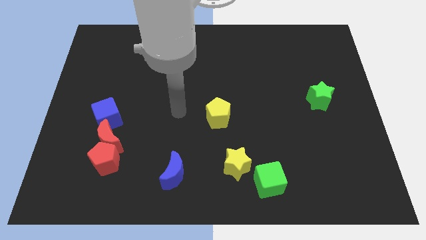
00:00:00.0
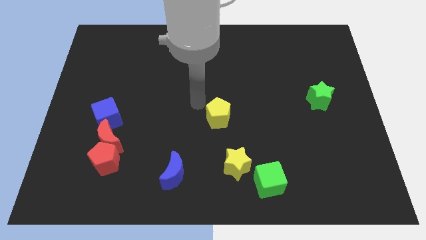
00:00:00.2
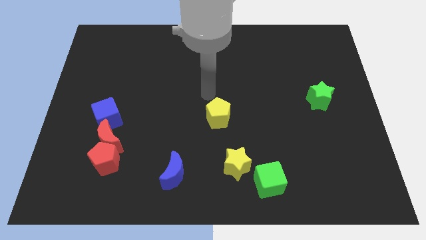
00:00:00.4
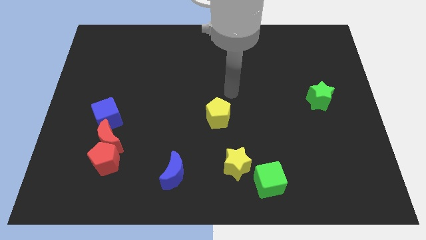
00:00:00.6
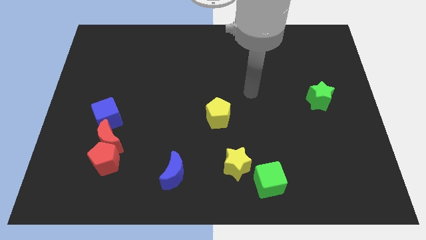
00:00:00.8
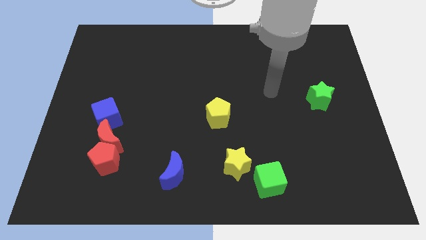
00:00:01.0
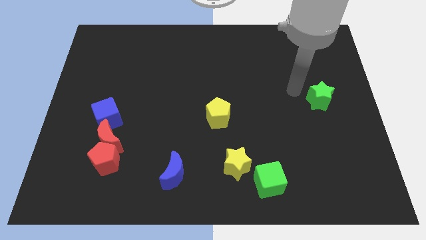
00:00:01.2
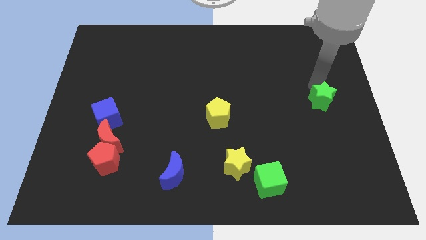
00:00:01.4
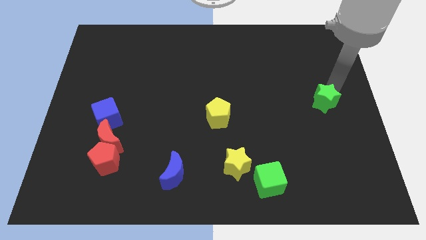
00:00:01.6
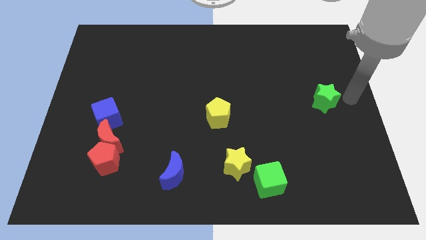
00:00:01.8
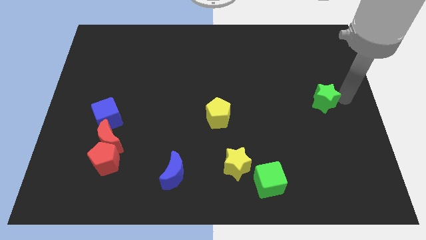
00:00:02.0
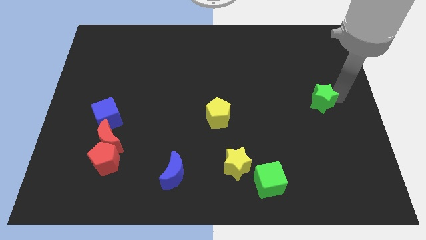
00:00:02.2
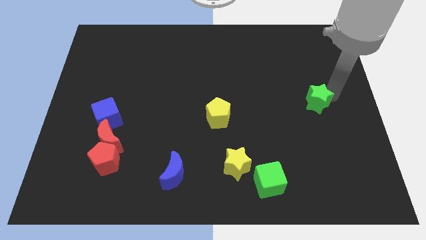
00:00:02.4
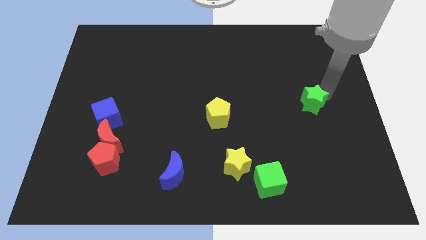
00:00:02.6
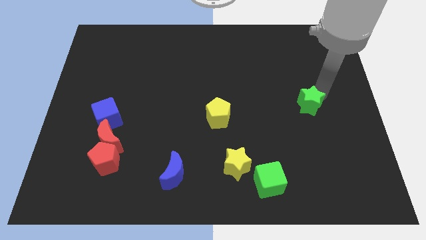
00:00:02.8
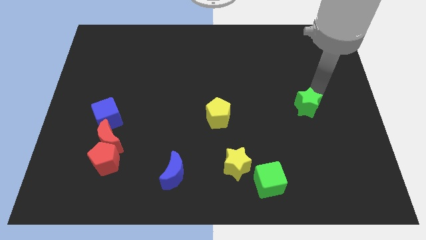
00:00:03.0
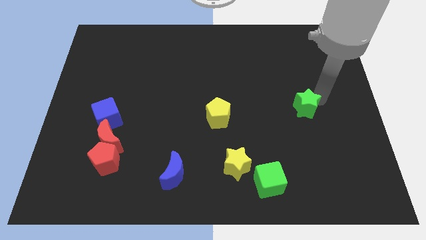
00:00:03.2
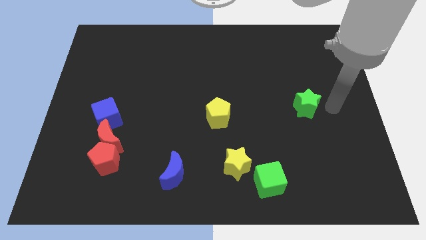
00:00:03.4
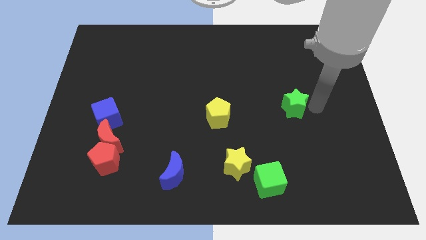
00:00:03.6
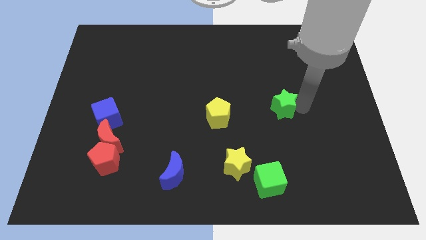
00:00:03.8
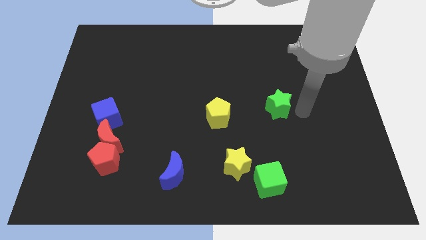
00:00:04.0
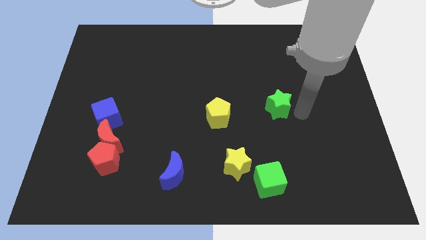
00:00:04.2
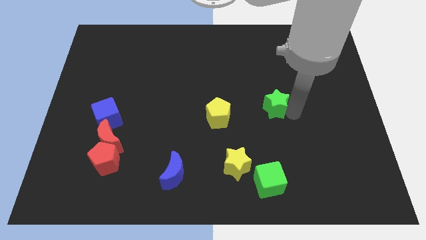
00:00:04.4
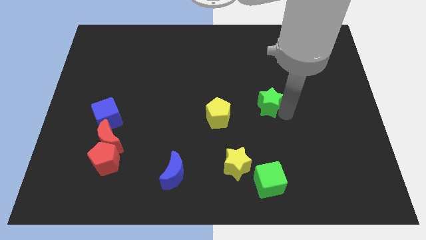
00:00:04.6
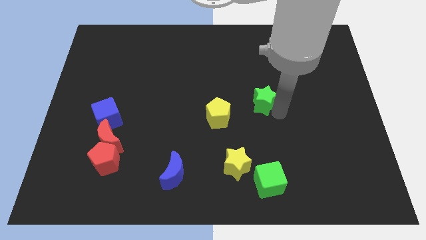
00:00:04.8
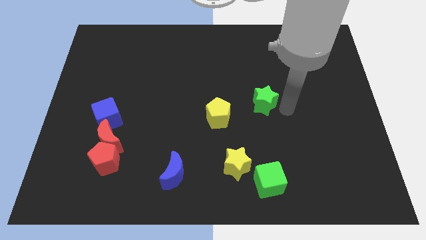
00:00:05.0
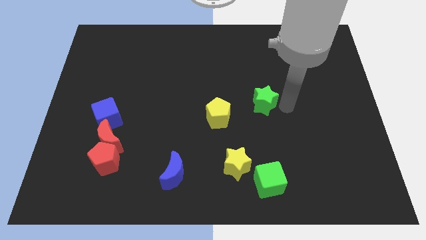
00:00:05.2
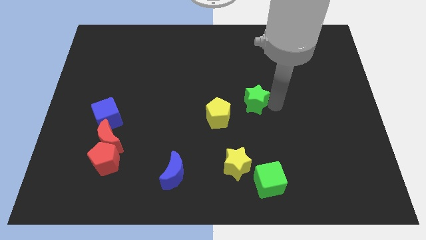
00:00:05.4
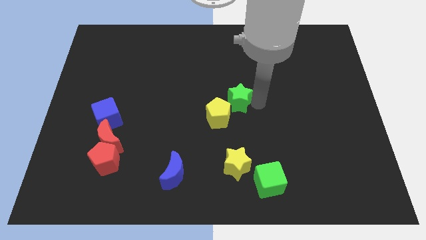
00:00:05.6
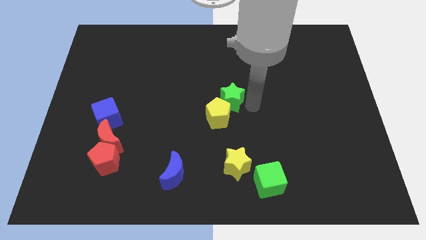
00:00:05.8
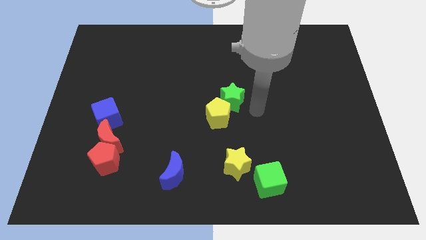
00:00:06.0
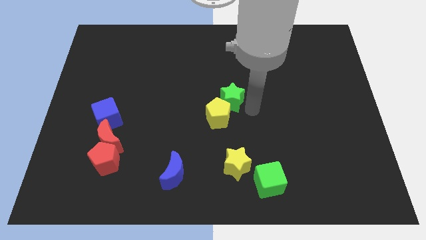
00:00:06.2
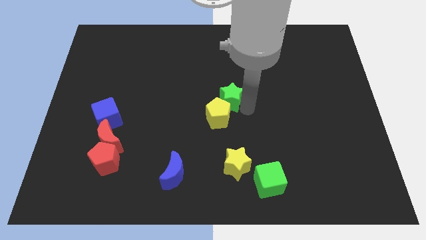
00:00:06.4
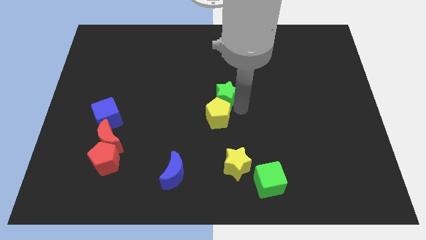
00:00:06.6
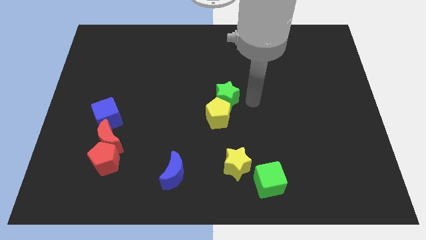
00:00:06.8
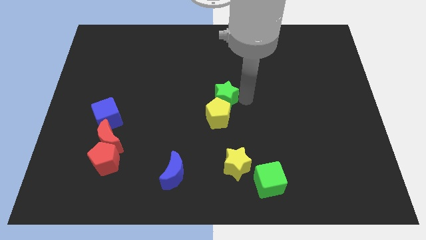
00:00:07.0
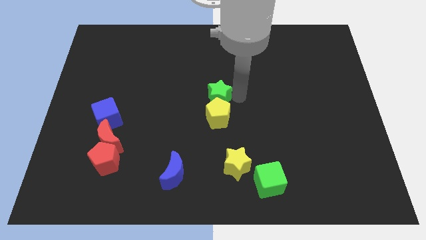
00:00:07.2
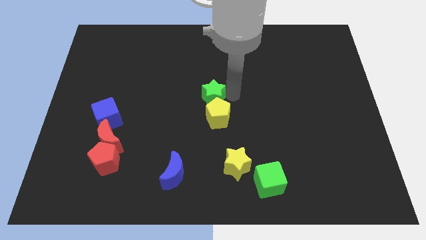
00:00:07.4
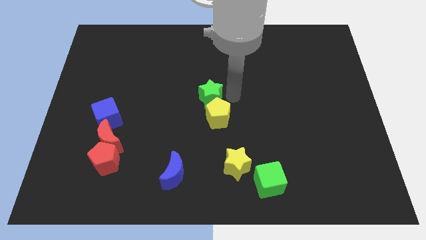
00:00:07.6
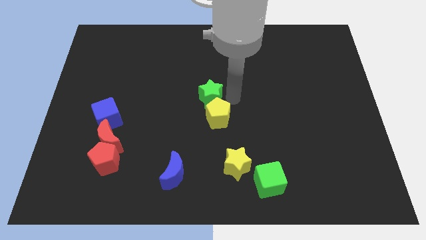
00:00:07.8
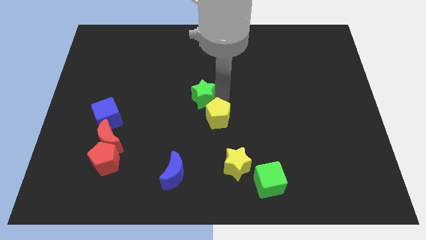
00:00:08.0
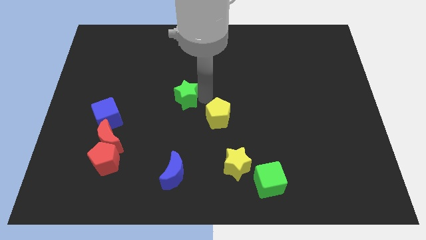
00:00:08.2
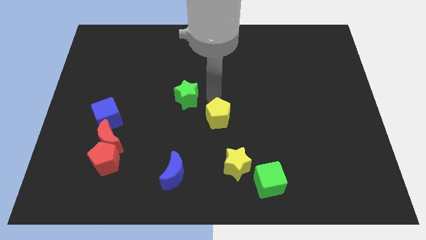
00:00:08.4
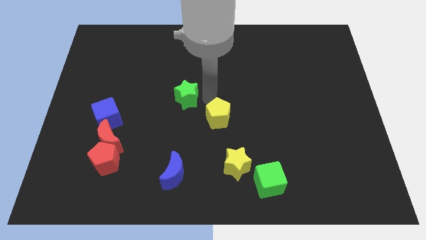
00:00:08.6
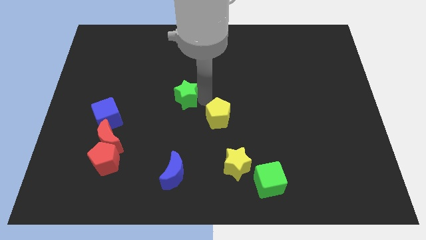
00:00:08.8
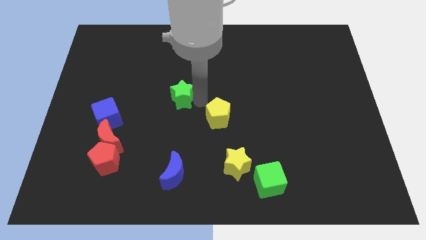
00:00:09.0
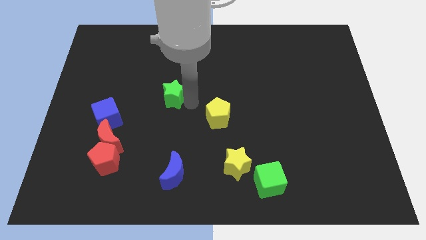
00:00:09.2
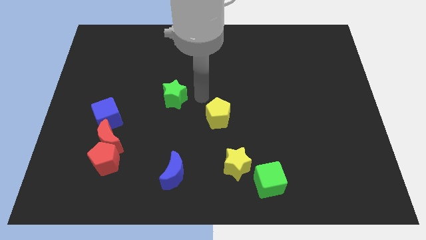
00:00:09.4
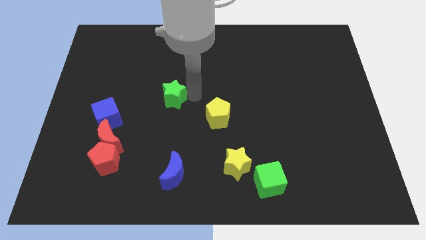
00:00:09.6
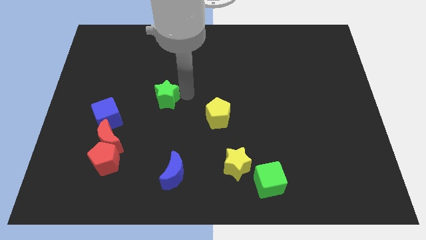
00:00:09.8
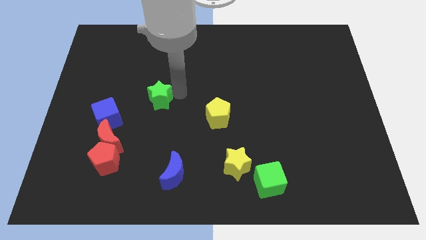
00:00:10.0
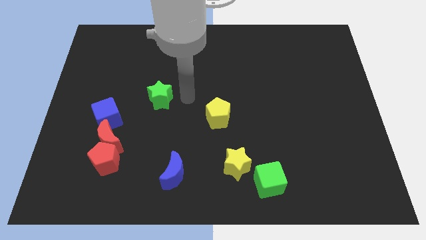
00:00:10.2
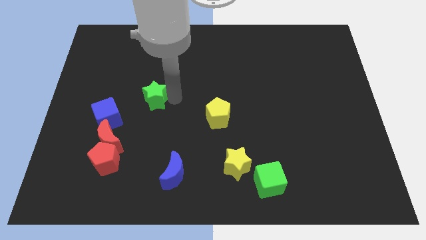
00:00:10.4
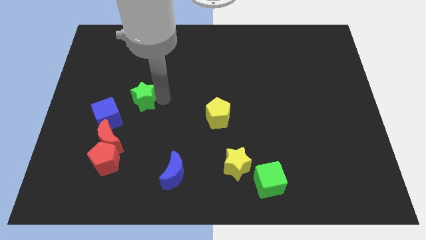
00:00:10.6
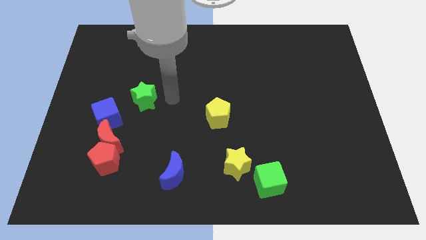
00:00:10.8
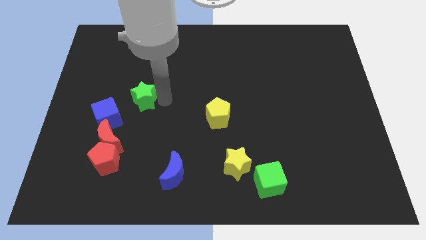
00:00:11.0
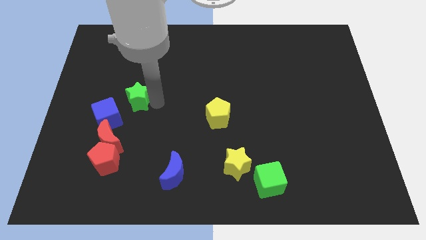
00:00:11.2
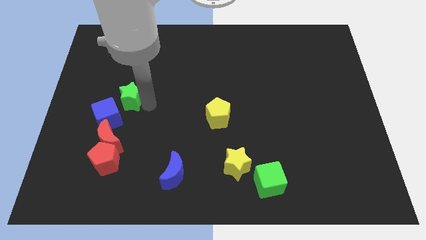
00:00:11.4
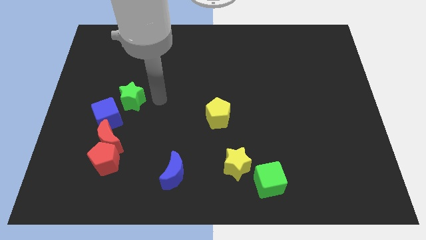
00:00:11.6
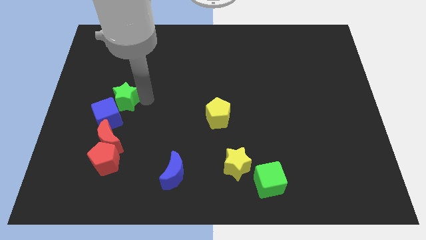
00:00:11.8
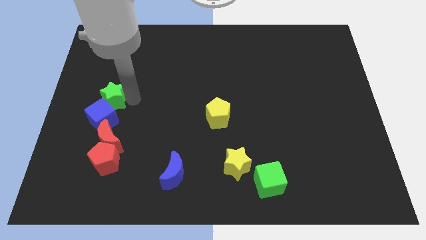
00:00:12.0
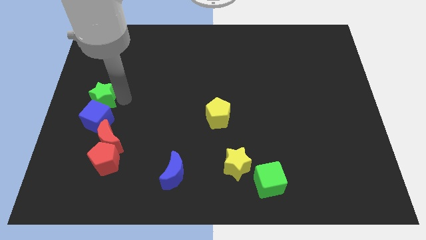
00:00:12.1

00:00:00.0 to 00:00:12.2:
slide the green star to the center left

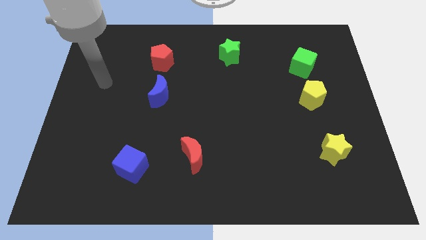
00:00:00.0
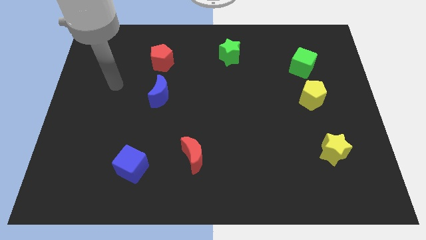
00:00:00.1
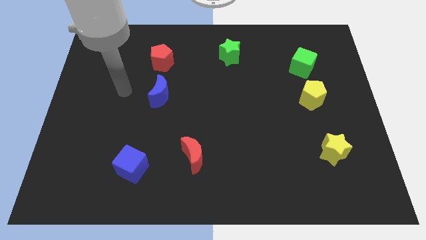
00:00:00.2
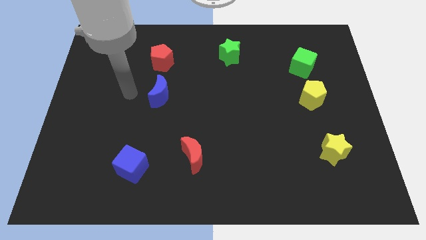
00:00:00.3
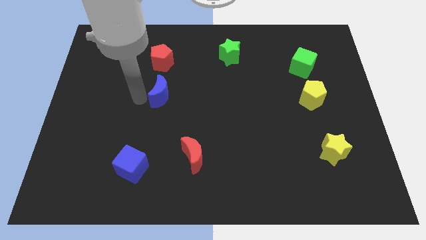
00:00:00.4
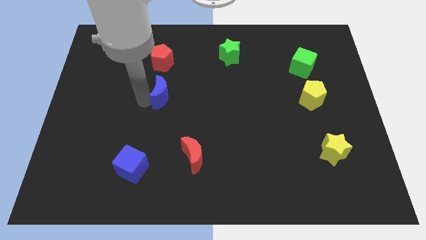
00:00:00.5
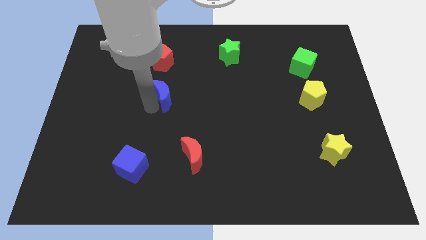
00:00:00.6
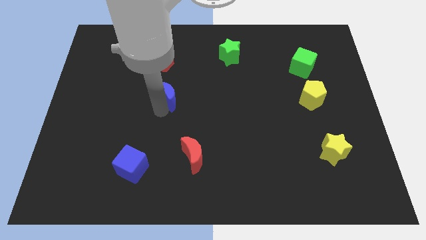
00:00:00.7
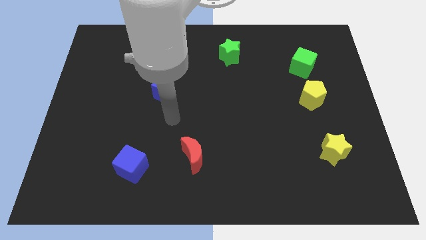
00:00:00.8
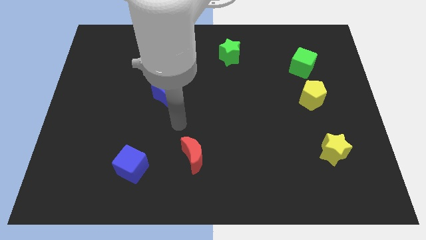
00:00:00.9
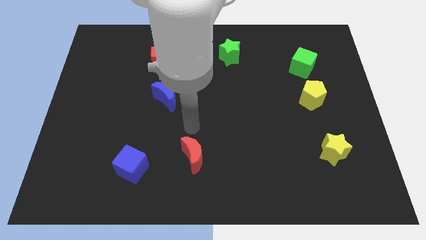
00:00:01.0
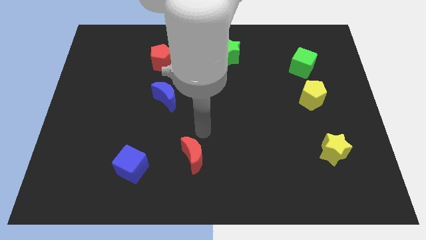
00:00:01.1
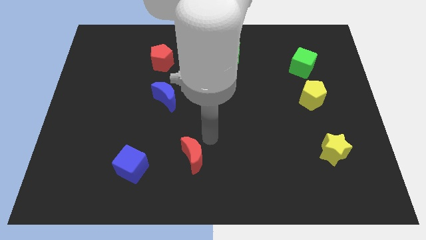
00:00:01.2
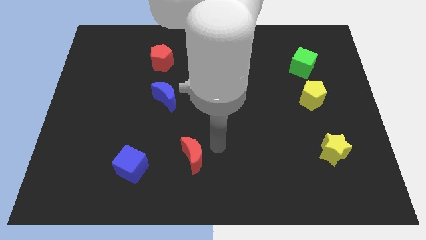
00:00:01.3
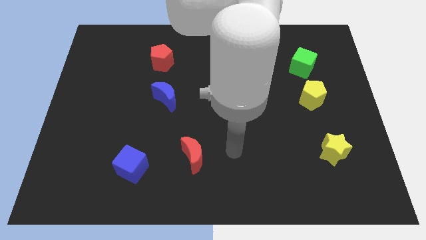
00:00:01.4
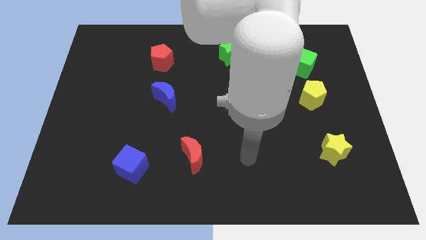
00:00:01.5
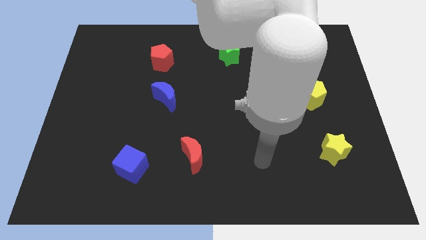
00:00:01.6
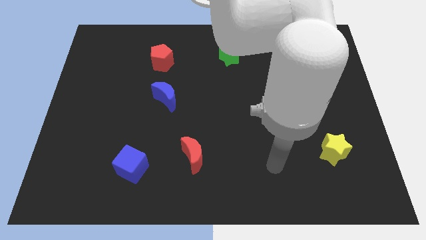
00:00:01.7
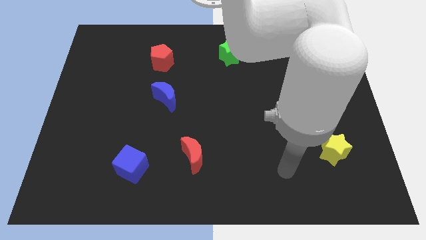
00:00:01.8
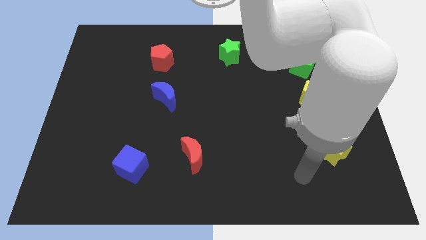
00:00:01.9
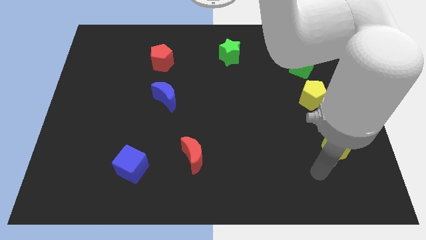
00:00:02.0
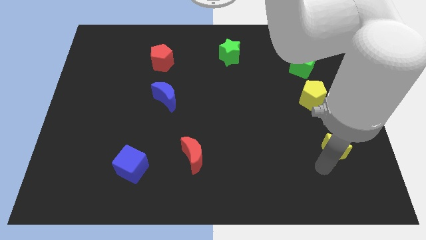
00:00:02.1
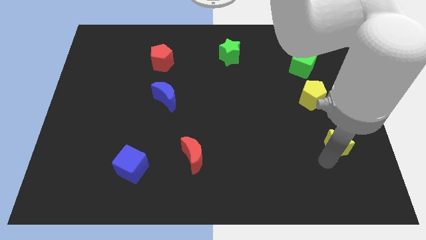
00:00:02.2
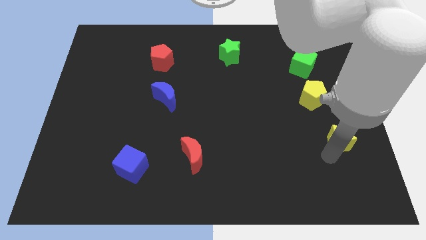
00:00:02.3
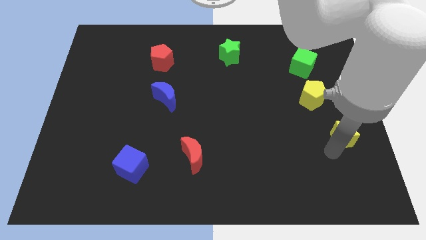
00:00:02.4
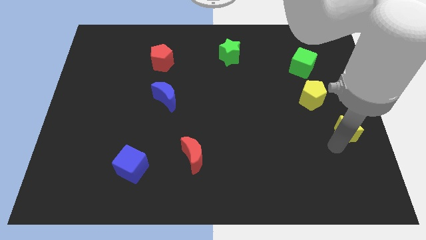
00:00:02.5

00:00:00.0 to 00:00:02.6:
slide the yellow star to the center right
